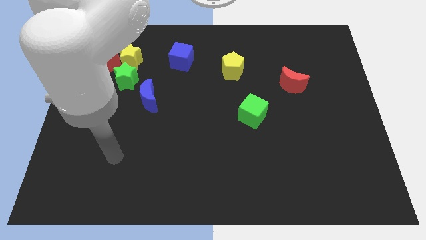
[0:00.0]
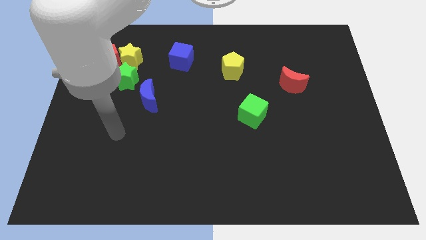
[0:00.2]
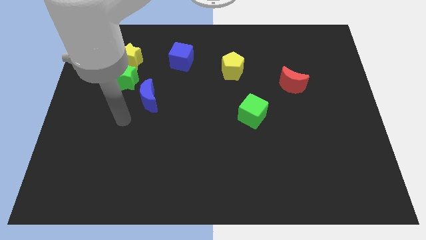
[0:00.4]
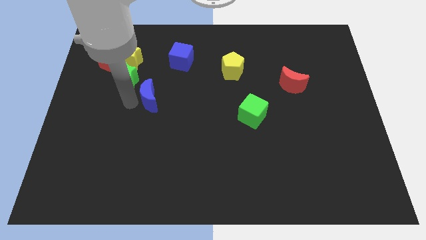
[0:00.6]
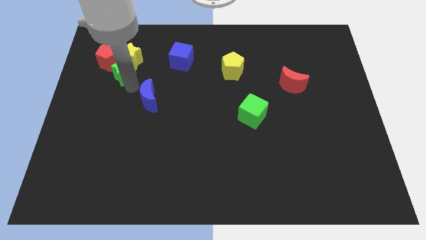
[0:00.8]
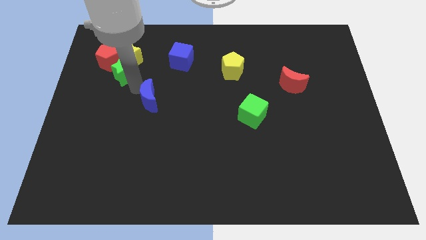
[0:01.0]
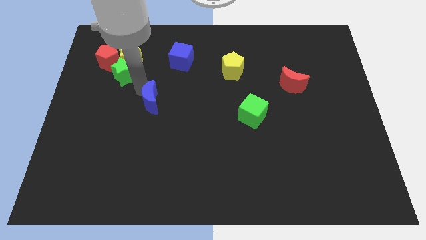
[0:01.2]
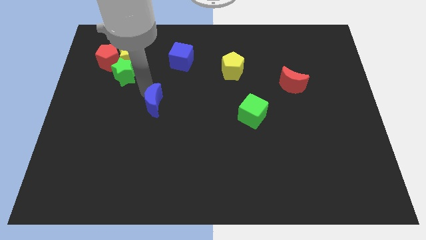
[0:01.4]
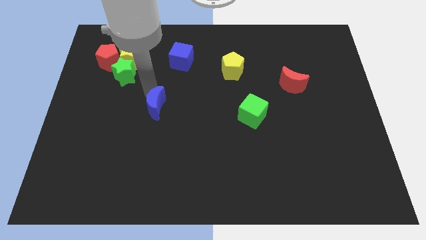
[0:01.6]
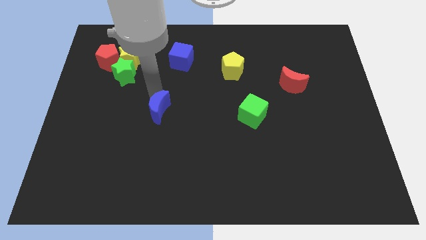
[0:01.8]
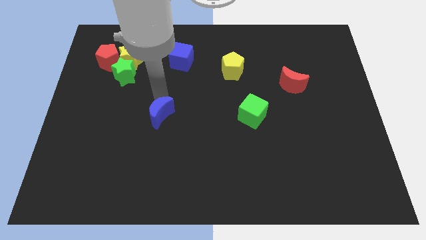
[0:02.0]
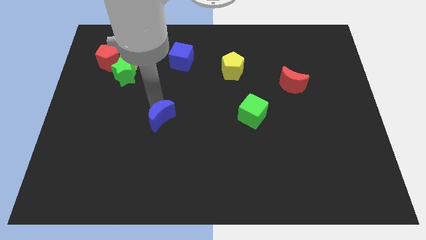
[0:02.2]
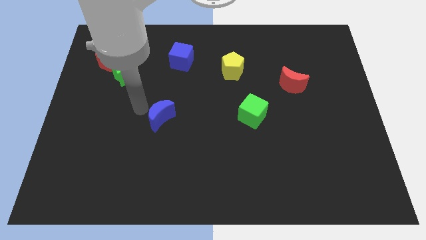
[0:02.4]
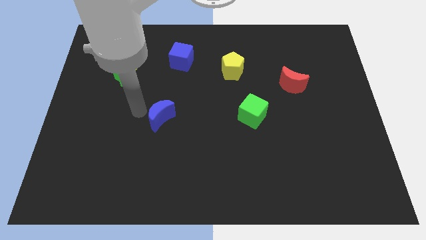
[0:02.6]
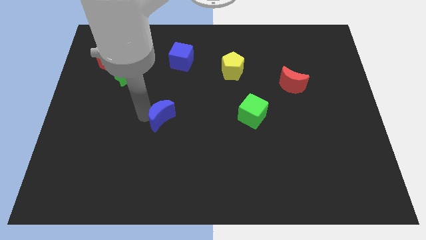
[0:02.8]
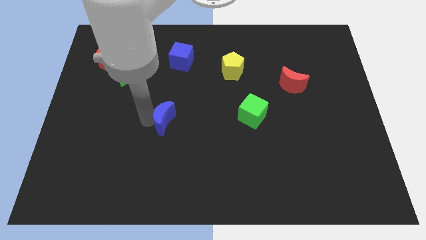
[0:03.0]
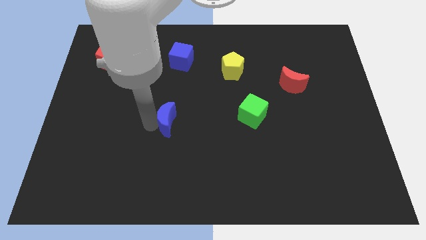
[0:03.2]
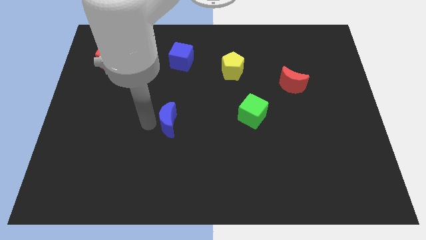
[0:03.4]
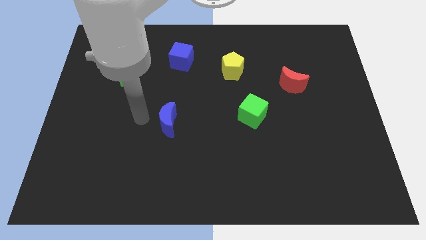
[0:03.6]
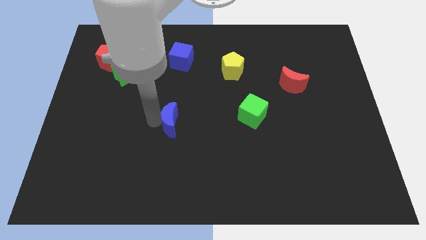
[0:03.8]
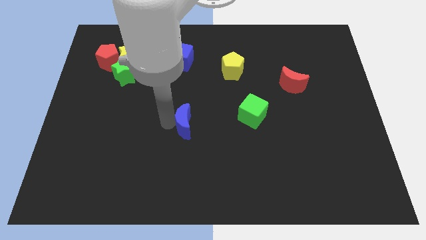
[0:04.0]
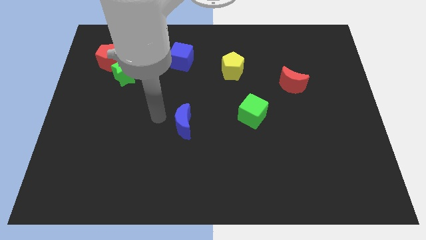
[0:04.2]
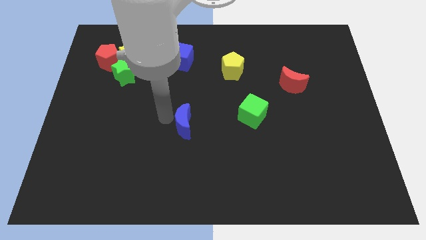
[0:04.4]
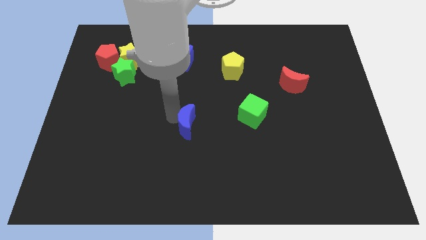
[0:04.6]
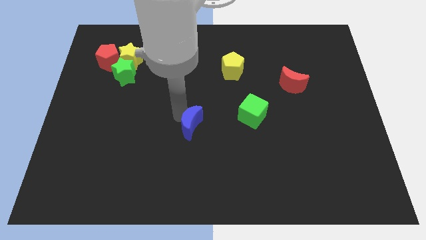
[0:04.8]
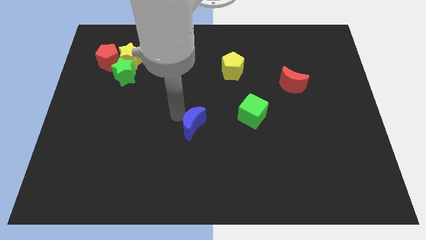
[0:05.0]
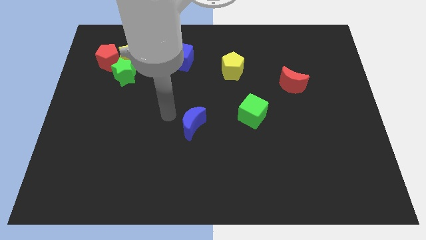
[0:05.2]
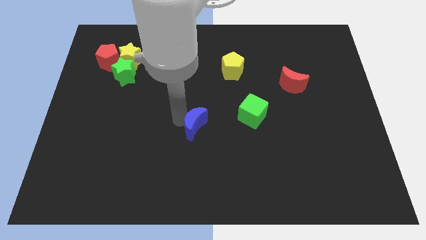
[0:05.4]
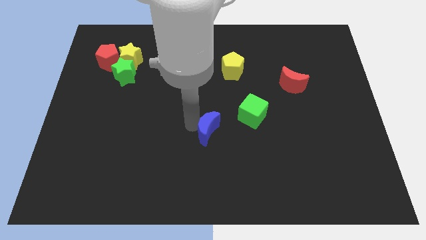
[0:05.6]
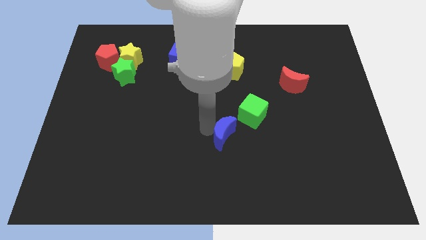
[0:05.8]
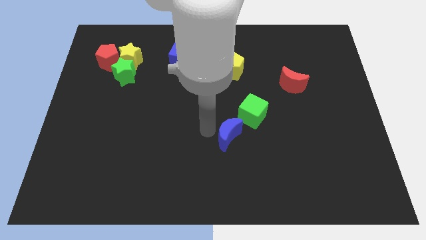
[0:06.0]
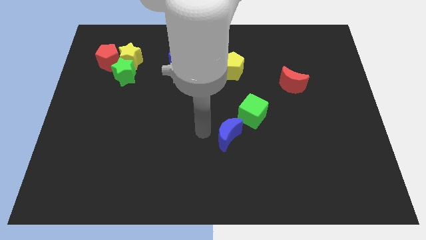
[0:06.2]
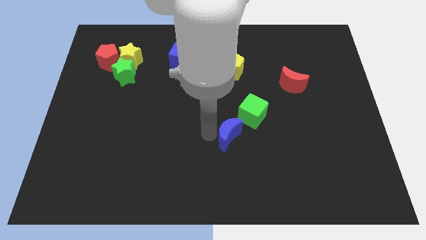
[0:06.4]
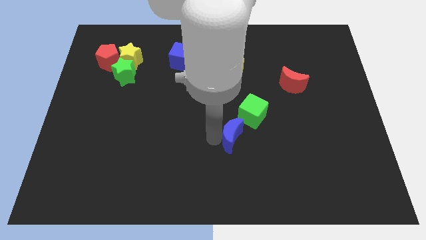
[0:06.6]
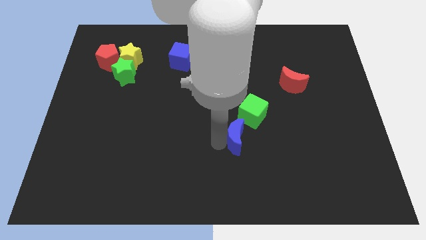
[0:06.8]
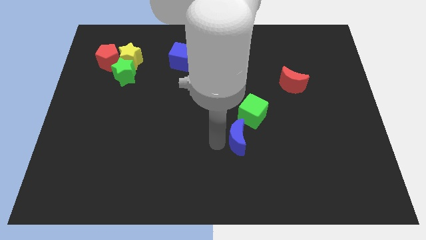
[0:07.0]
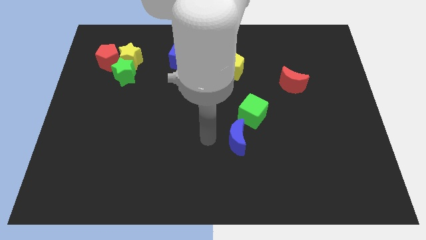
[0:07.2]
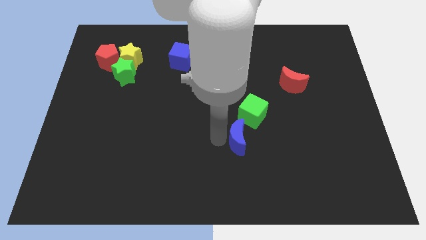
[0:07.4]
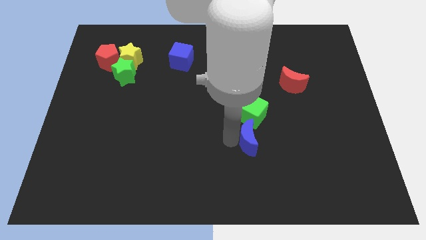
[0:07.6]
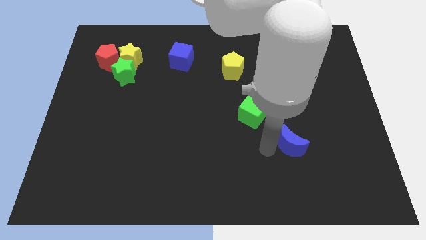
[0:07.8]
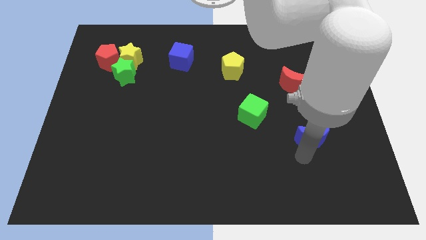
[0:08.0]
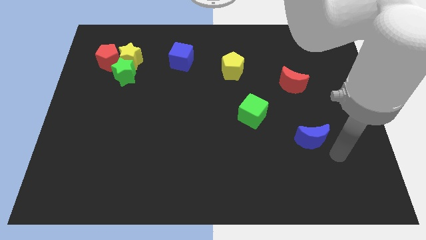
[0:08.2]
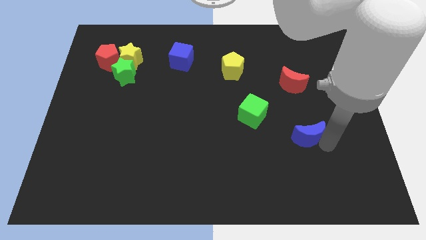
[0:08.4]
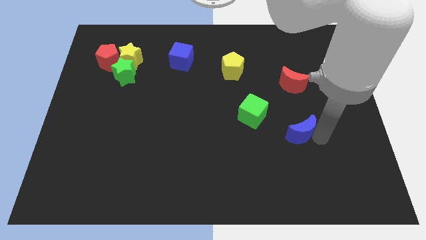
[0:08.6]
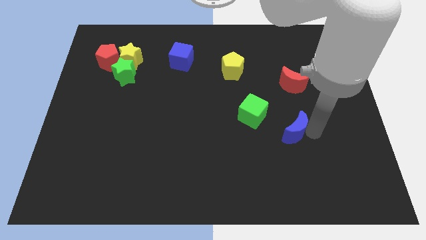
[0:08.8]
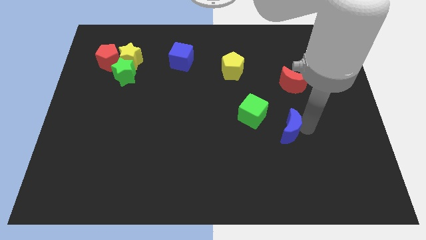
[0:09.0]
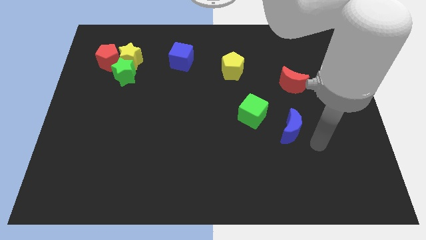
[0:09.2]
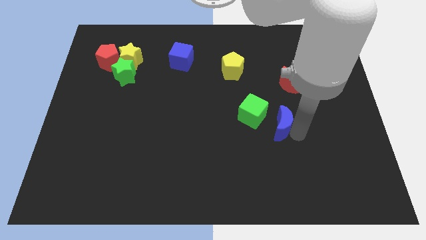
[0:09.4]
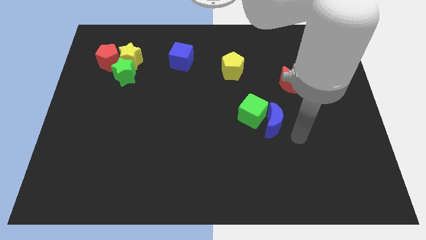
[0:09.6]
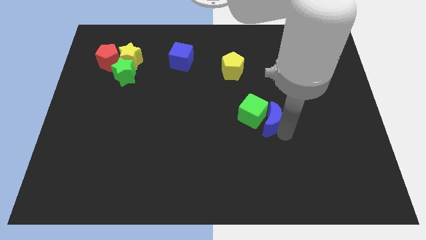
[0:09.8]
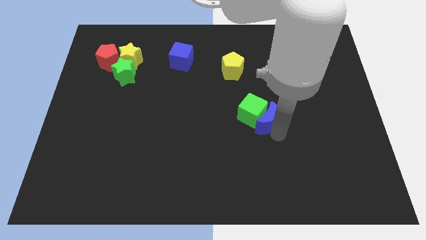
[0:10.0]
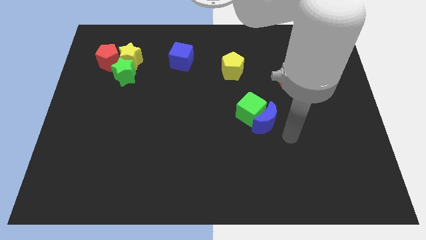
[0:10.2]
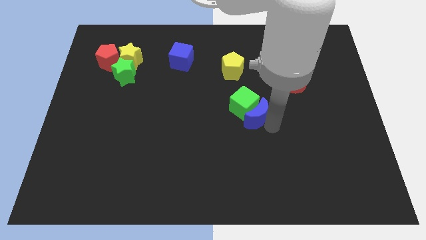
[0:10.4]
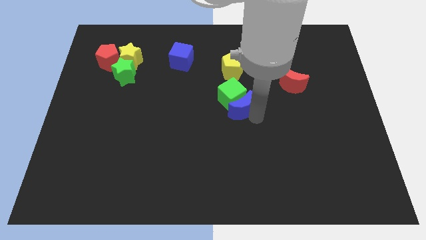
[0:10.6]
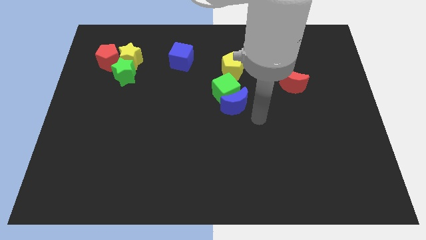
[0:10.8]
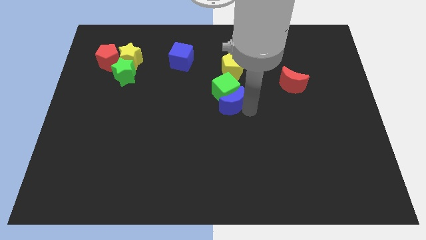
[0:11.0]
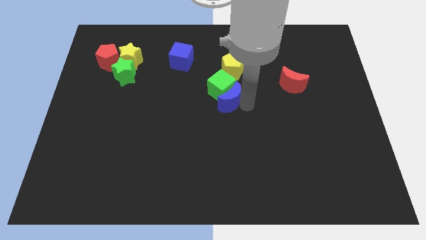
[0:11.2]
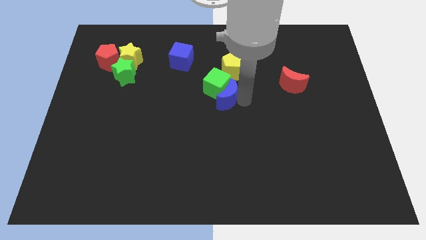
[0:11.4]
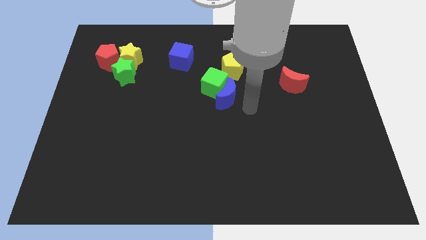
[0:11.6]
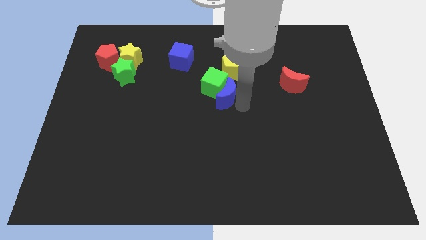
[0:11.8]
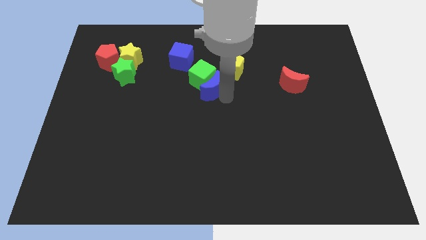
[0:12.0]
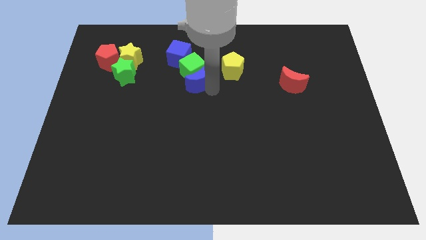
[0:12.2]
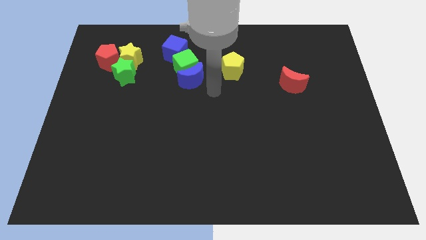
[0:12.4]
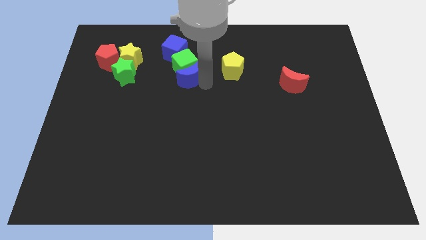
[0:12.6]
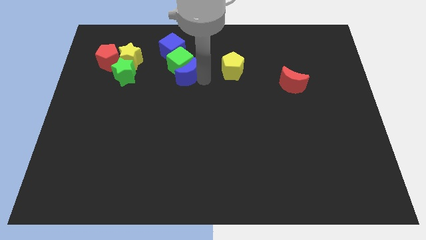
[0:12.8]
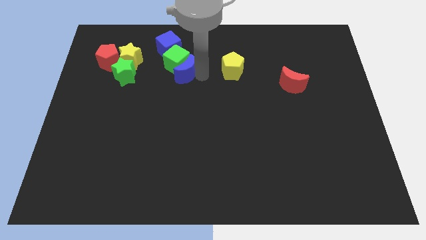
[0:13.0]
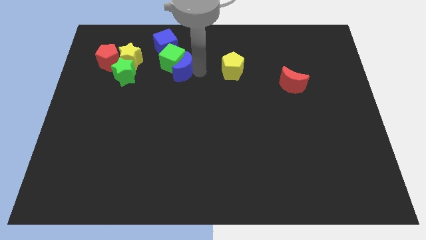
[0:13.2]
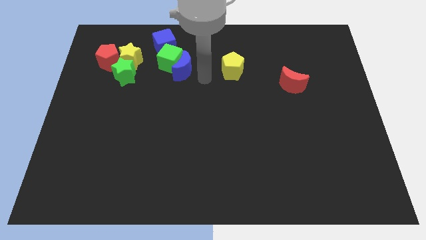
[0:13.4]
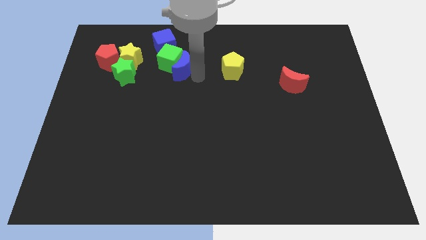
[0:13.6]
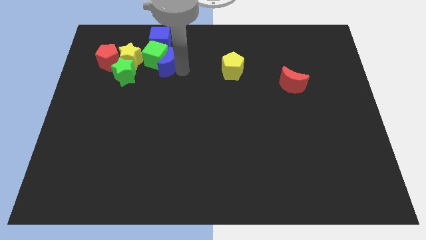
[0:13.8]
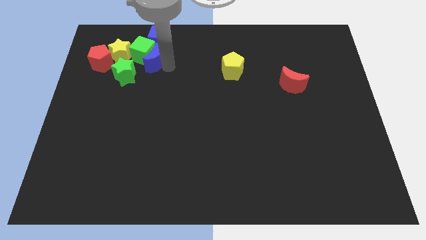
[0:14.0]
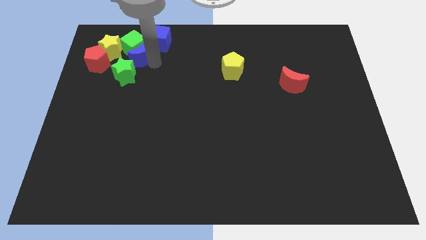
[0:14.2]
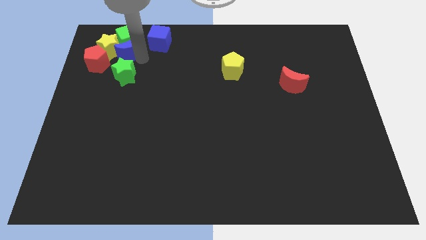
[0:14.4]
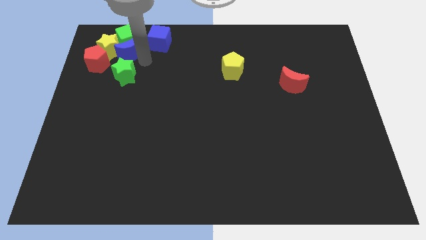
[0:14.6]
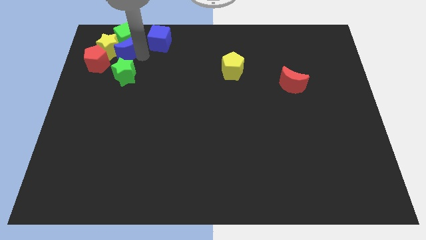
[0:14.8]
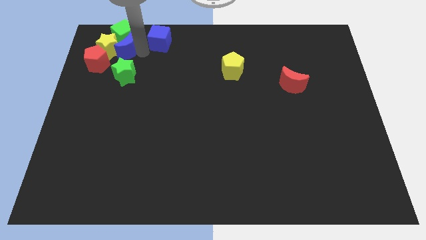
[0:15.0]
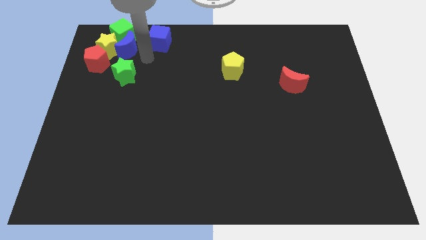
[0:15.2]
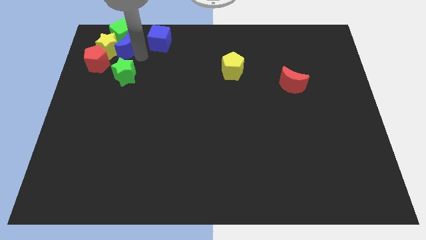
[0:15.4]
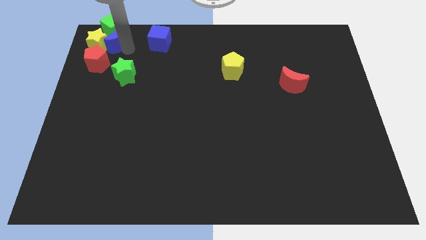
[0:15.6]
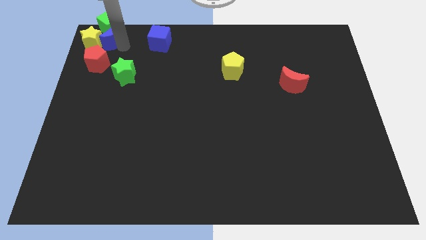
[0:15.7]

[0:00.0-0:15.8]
push the blue moon to the top left
